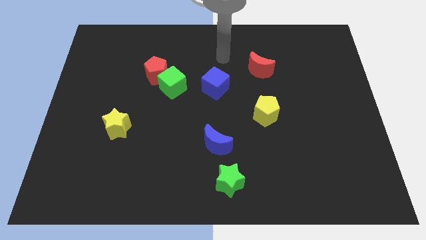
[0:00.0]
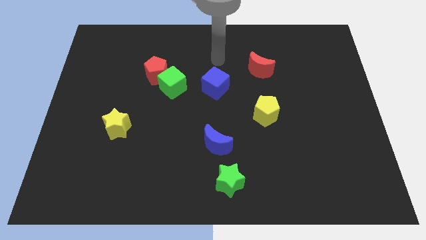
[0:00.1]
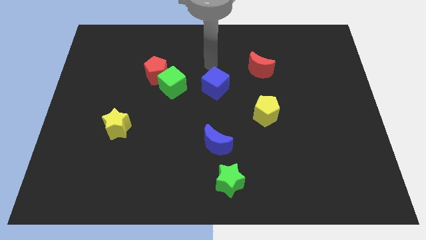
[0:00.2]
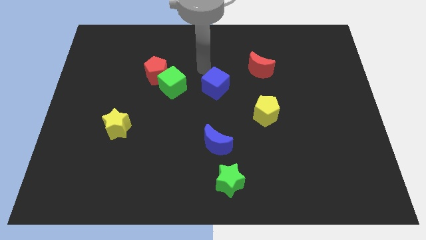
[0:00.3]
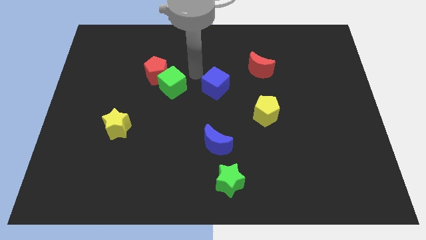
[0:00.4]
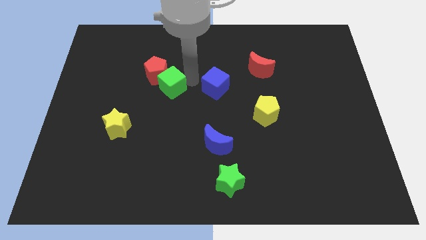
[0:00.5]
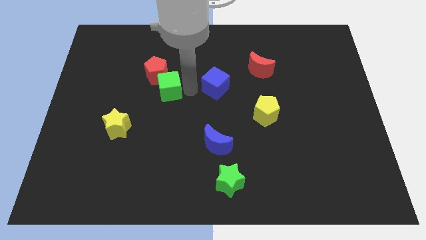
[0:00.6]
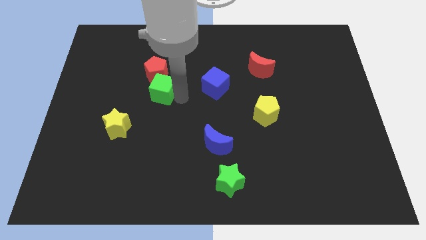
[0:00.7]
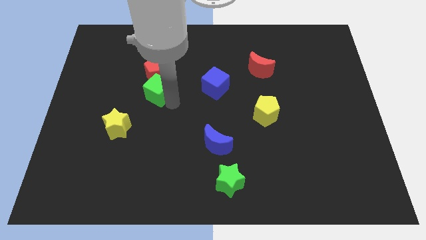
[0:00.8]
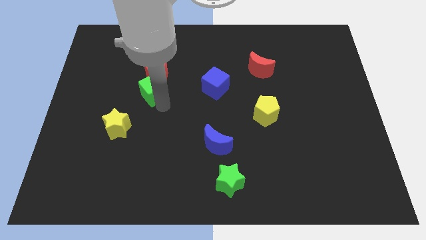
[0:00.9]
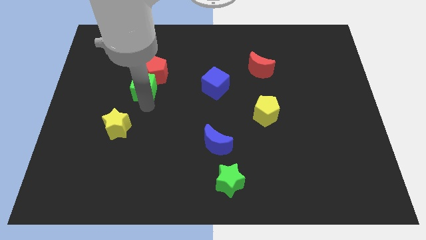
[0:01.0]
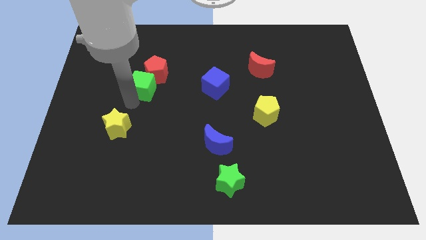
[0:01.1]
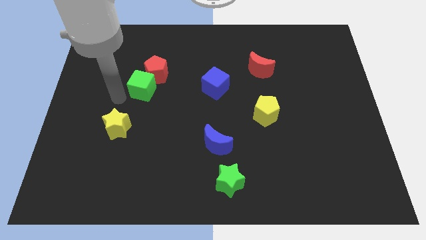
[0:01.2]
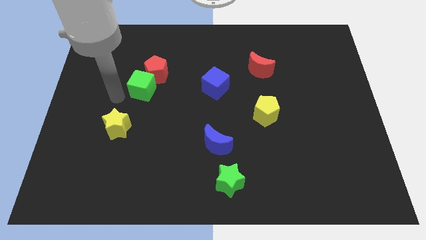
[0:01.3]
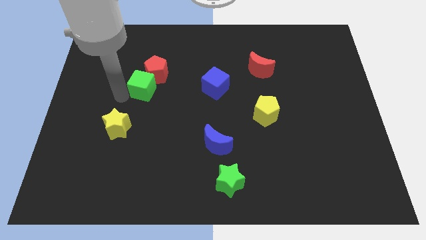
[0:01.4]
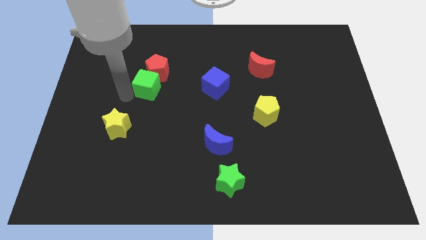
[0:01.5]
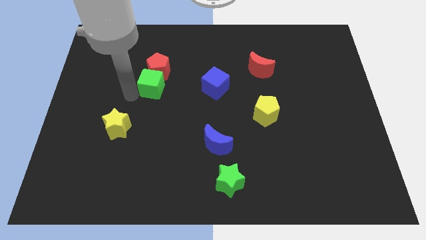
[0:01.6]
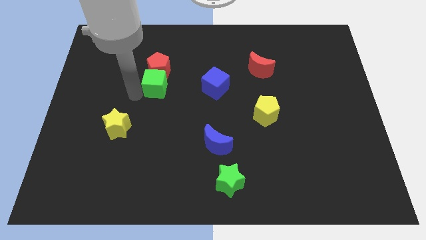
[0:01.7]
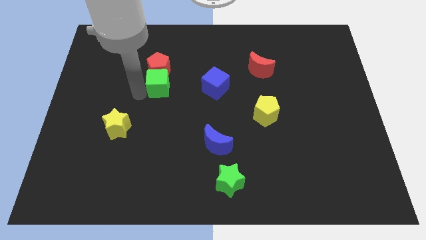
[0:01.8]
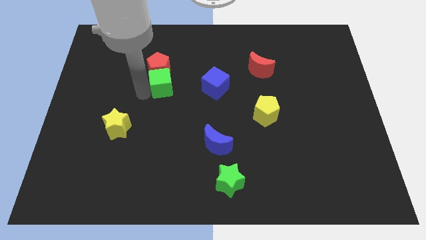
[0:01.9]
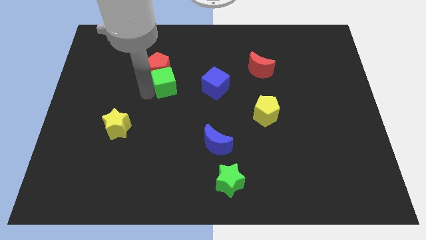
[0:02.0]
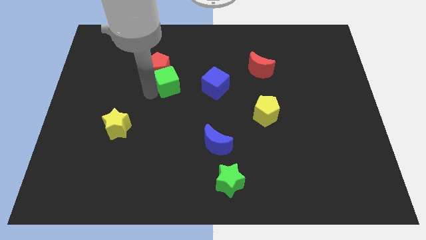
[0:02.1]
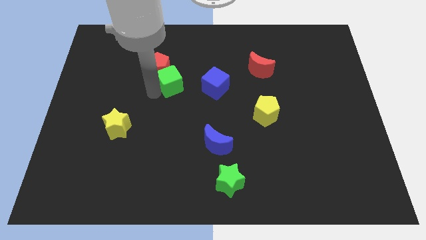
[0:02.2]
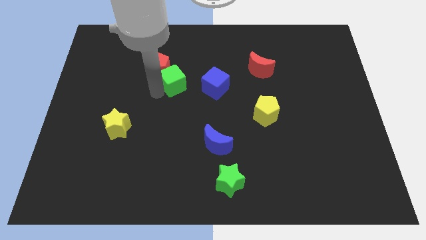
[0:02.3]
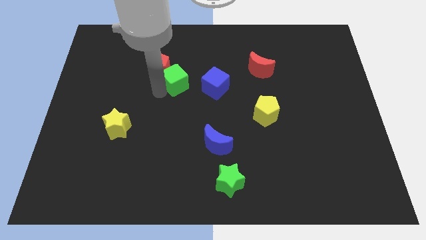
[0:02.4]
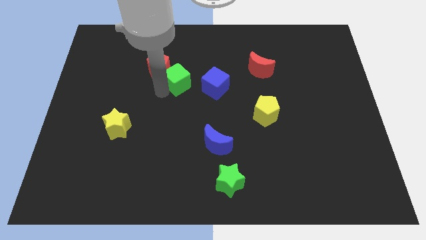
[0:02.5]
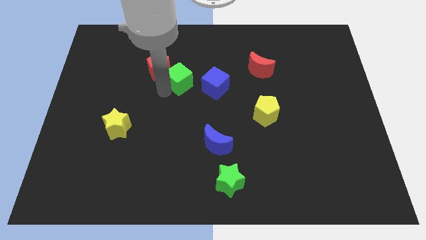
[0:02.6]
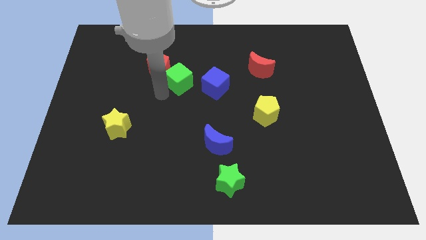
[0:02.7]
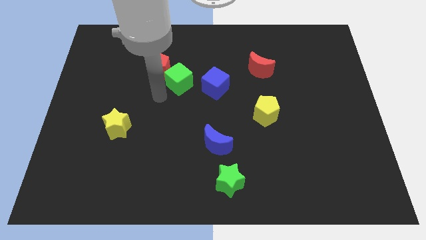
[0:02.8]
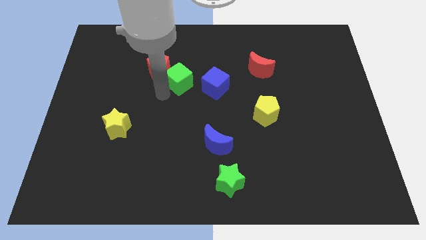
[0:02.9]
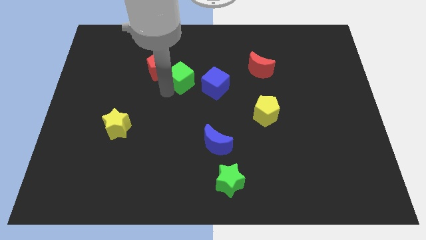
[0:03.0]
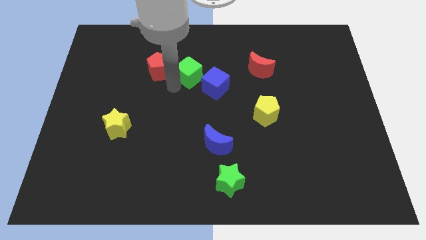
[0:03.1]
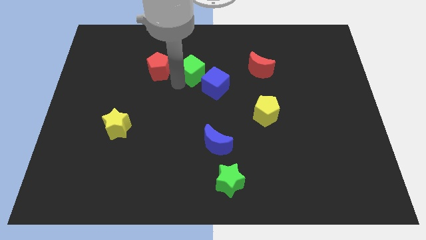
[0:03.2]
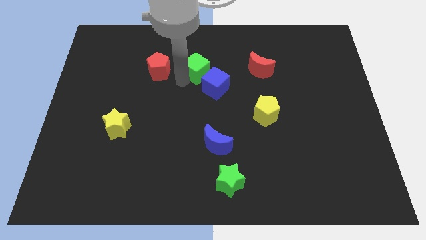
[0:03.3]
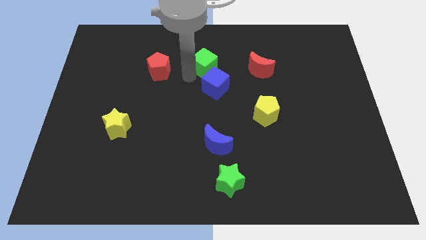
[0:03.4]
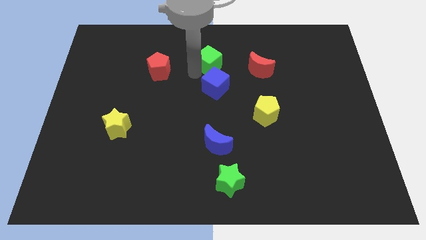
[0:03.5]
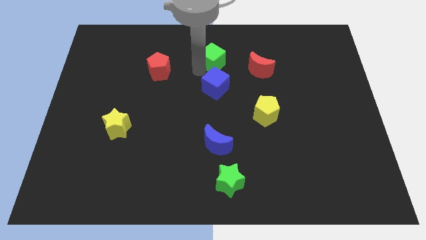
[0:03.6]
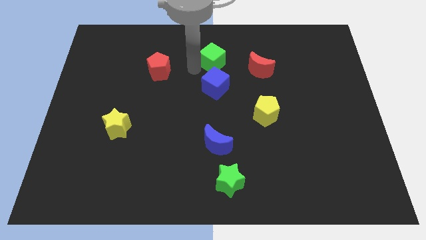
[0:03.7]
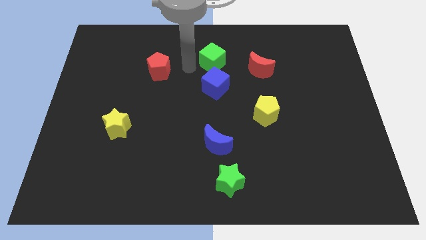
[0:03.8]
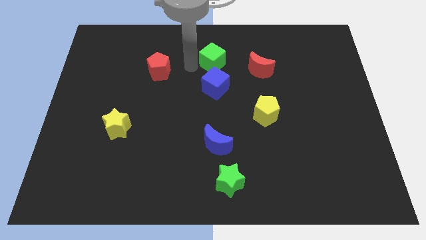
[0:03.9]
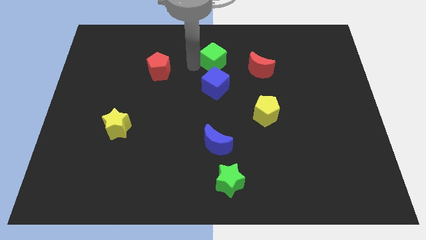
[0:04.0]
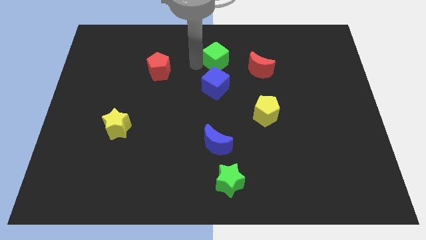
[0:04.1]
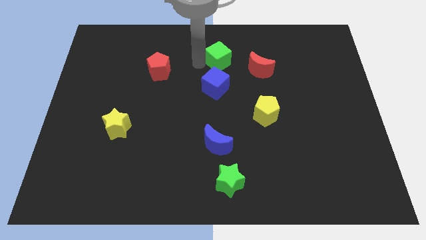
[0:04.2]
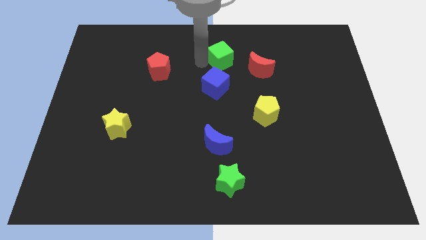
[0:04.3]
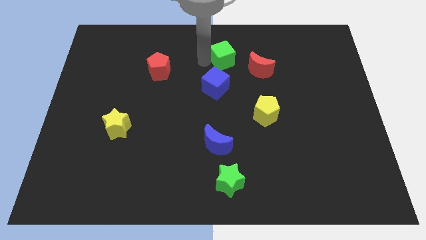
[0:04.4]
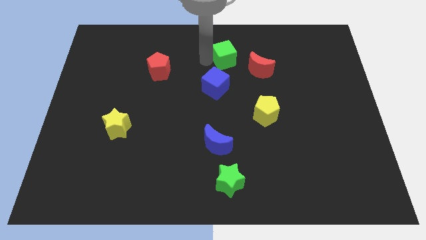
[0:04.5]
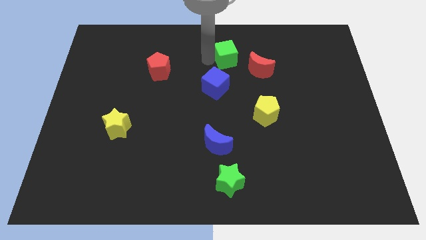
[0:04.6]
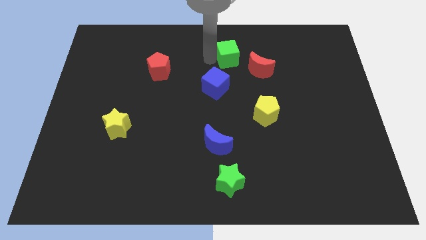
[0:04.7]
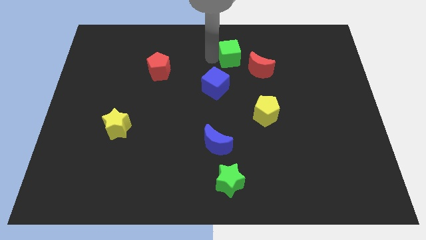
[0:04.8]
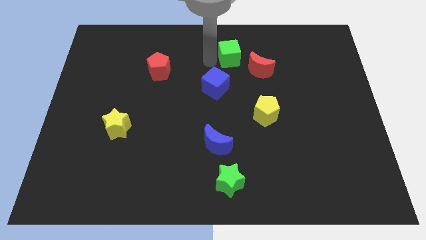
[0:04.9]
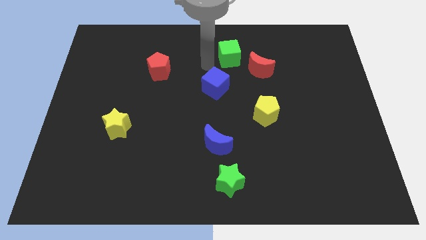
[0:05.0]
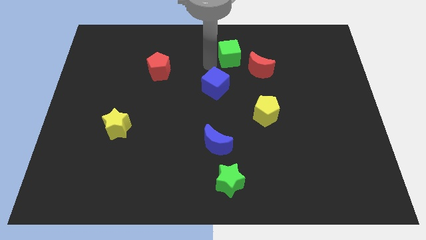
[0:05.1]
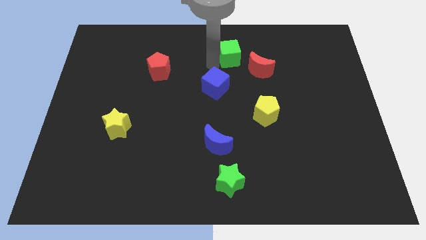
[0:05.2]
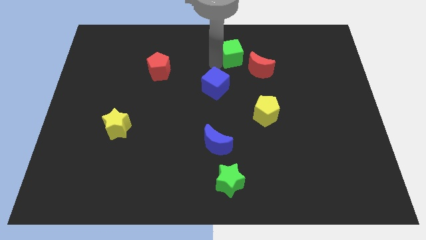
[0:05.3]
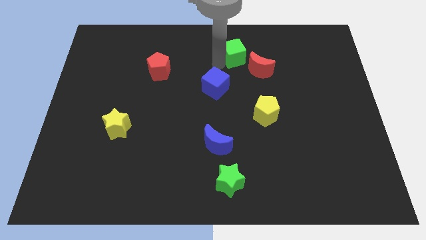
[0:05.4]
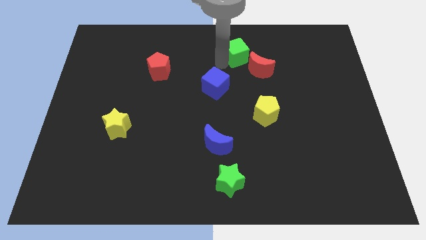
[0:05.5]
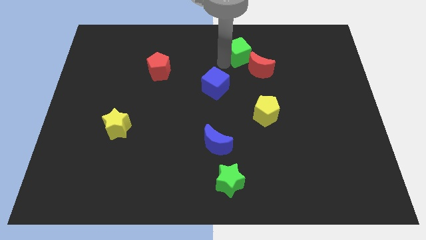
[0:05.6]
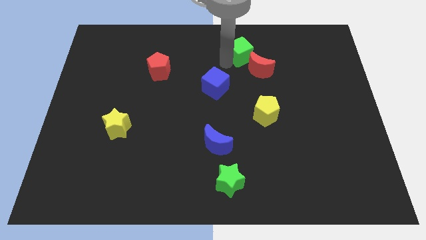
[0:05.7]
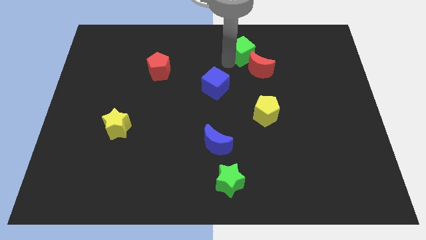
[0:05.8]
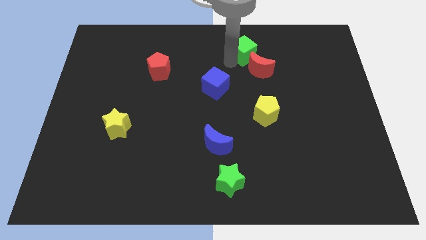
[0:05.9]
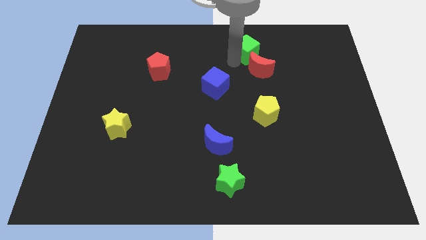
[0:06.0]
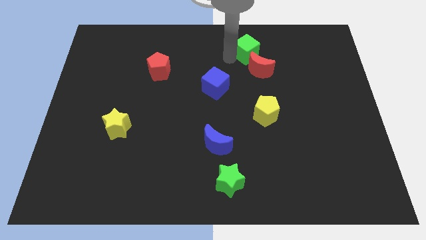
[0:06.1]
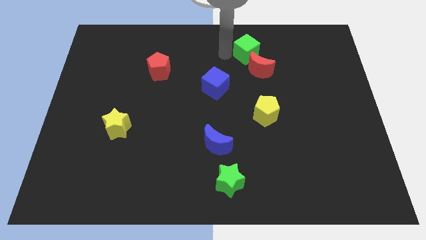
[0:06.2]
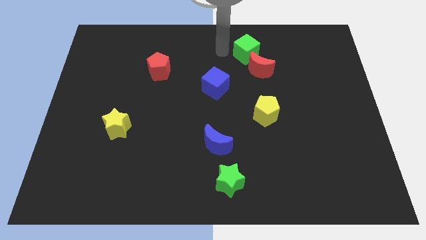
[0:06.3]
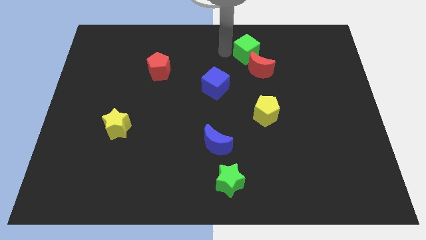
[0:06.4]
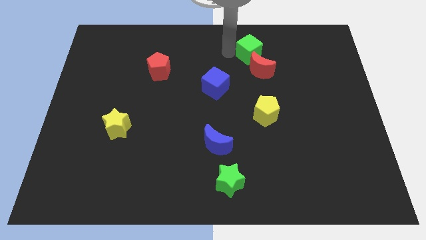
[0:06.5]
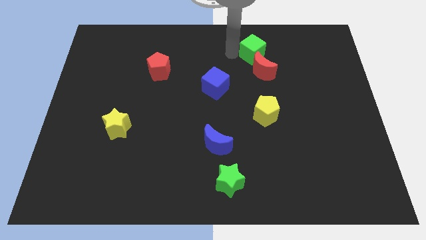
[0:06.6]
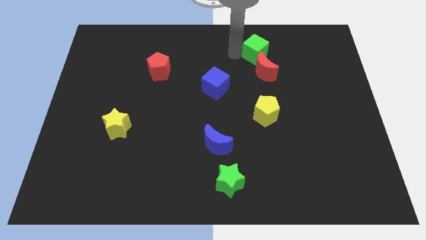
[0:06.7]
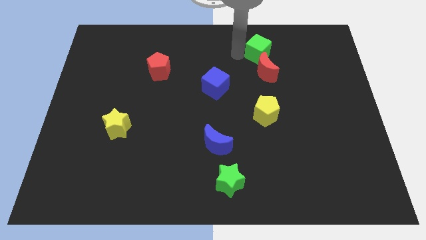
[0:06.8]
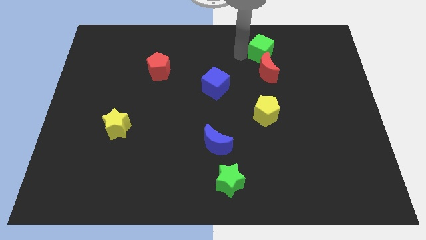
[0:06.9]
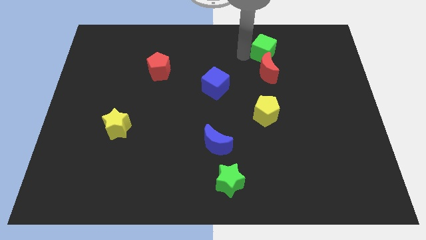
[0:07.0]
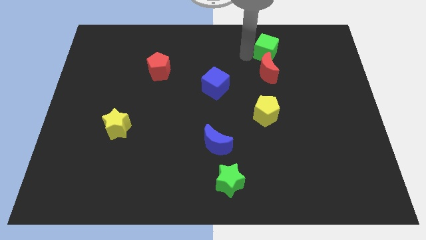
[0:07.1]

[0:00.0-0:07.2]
push the green cube diagonally up and to the right of the red moon

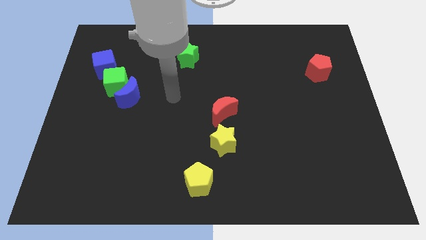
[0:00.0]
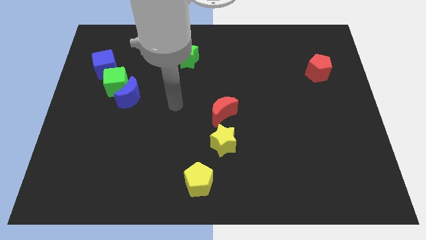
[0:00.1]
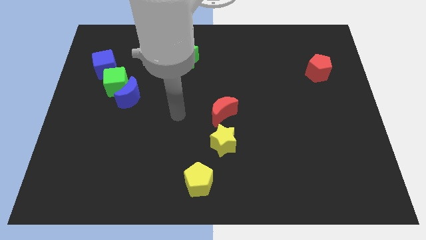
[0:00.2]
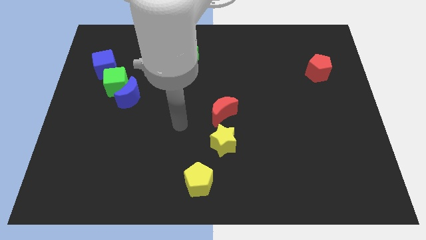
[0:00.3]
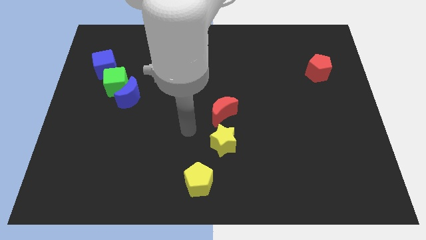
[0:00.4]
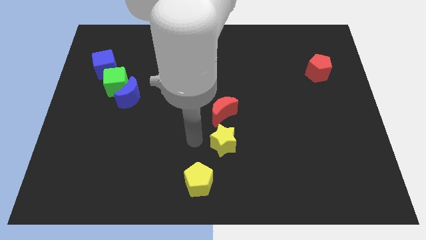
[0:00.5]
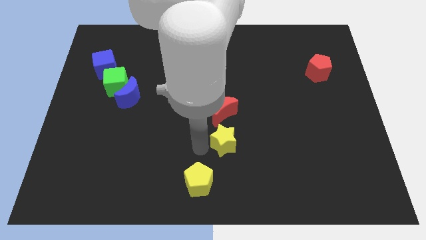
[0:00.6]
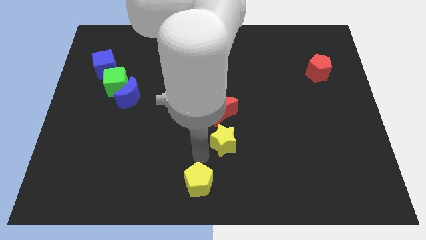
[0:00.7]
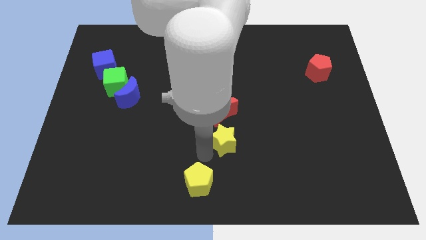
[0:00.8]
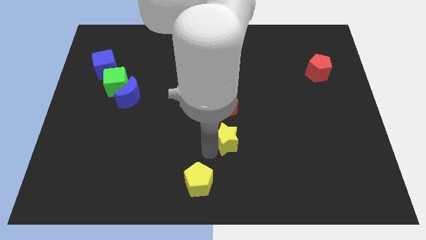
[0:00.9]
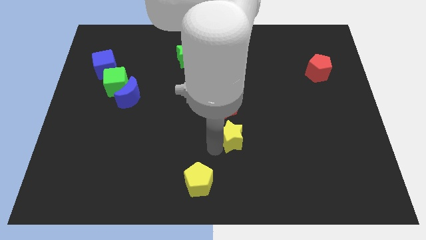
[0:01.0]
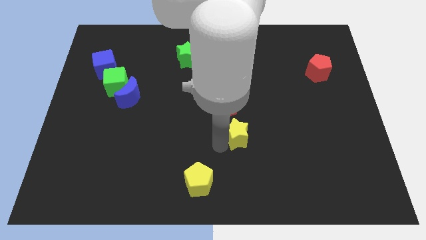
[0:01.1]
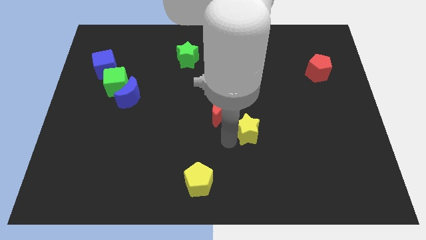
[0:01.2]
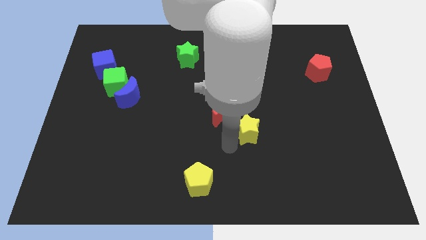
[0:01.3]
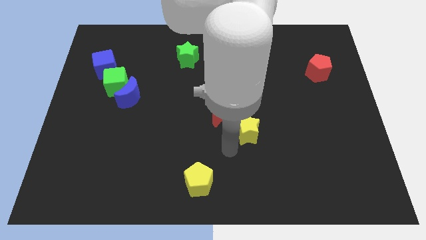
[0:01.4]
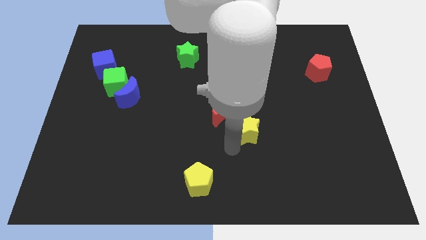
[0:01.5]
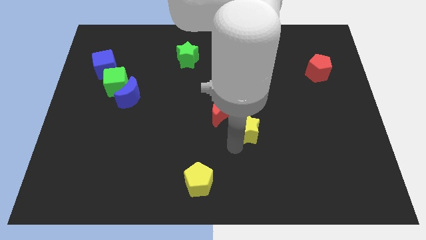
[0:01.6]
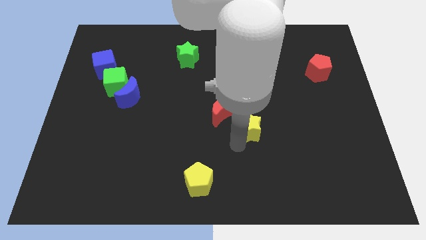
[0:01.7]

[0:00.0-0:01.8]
push the yellow star to the right of the red moon
